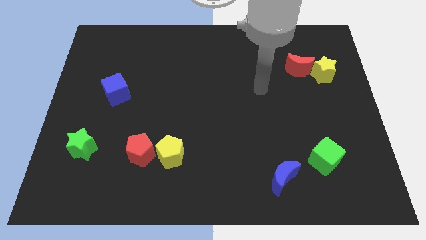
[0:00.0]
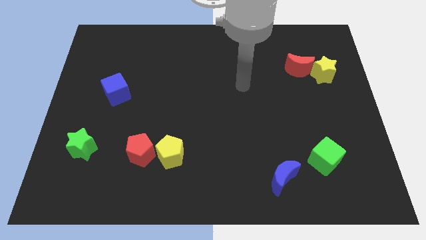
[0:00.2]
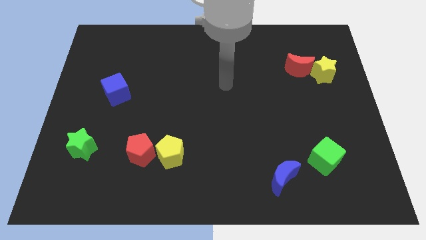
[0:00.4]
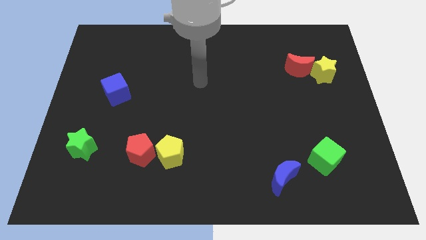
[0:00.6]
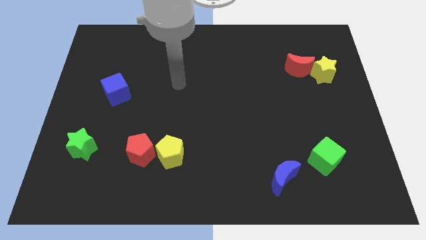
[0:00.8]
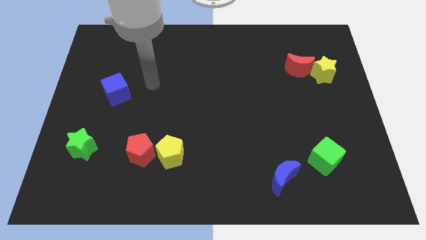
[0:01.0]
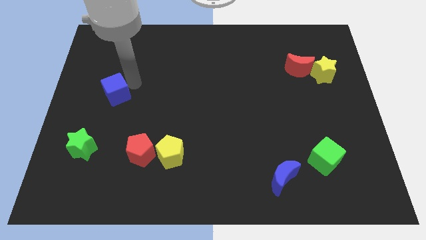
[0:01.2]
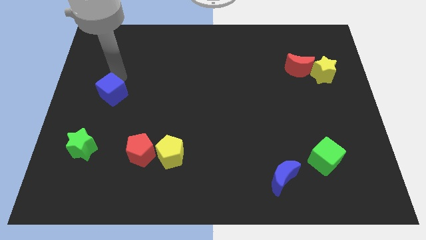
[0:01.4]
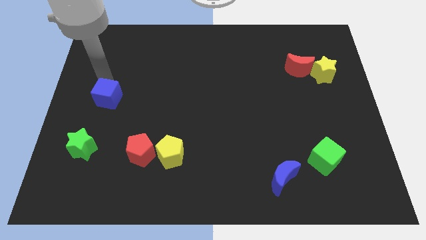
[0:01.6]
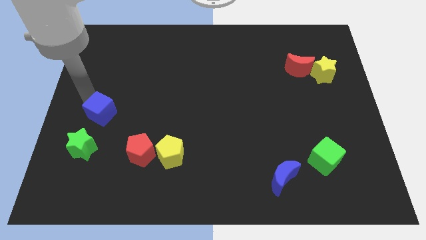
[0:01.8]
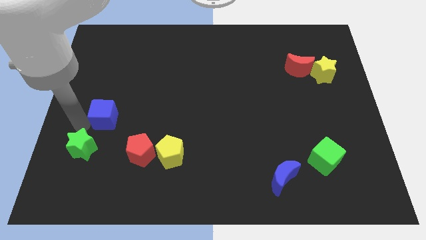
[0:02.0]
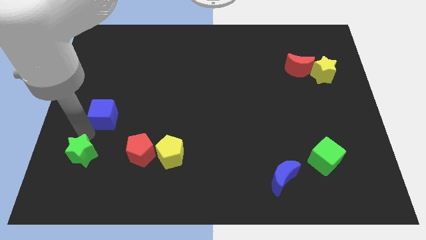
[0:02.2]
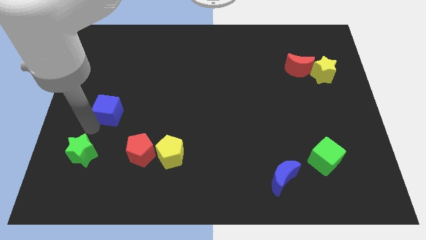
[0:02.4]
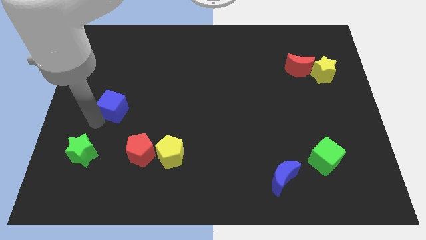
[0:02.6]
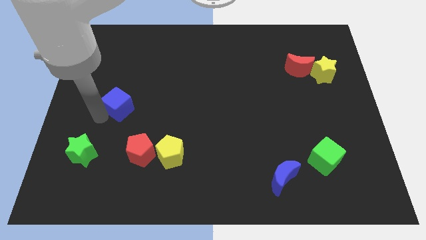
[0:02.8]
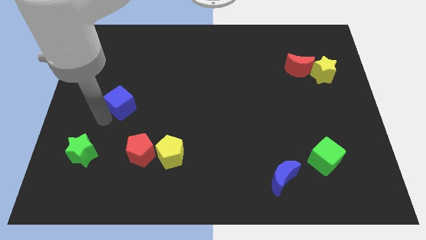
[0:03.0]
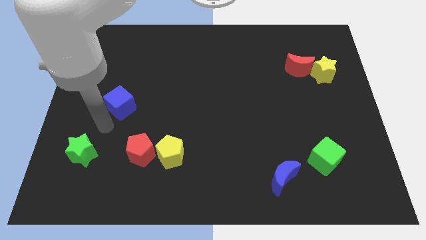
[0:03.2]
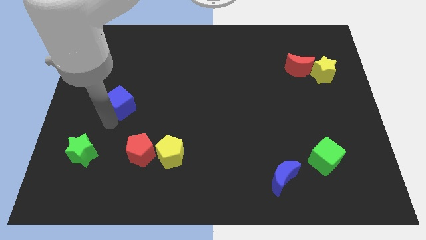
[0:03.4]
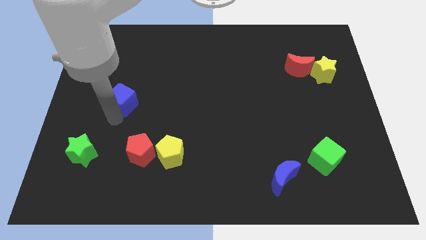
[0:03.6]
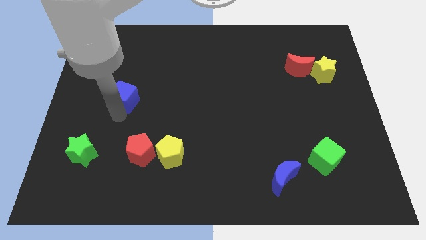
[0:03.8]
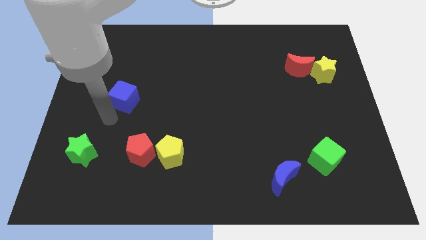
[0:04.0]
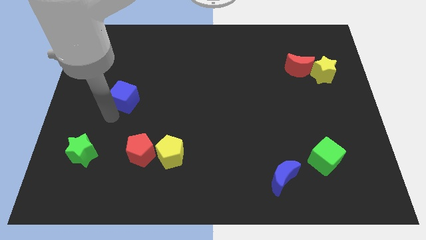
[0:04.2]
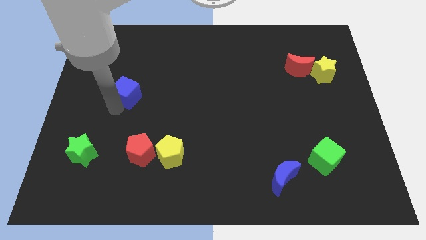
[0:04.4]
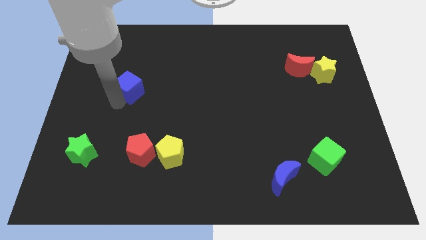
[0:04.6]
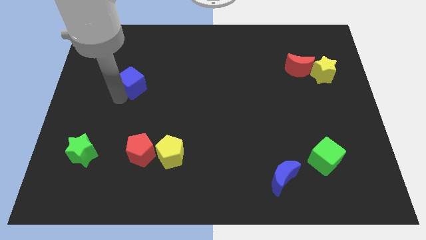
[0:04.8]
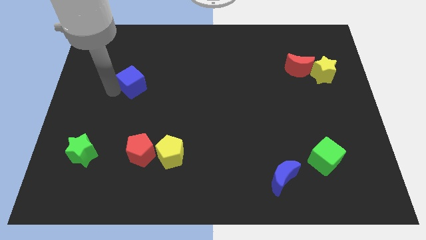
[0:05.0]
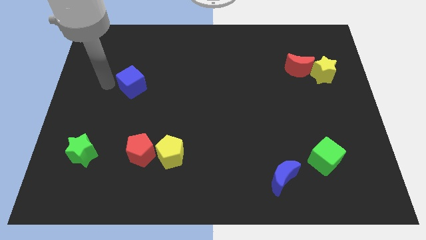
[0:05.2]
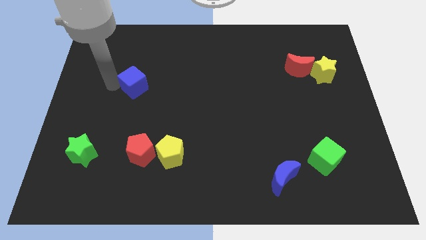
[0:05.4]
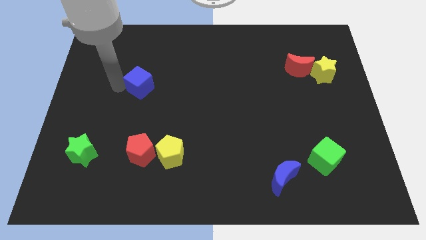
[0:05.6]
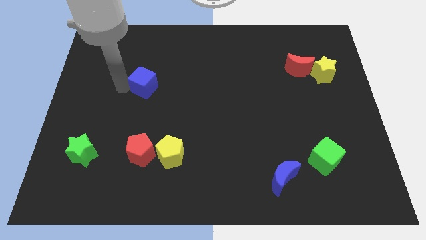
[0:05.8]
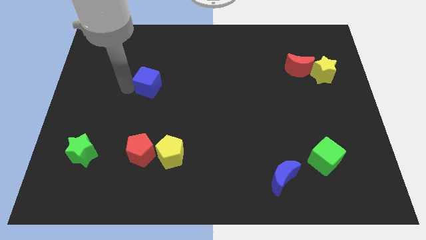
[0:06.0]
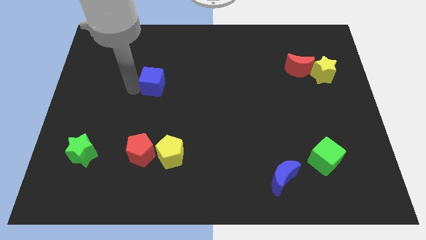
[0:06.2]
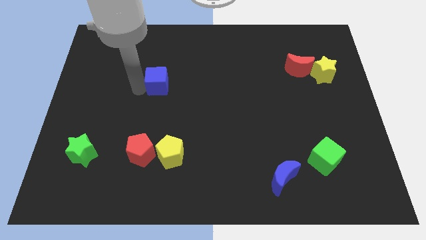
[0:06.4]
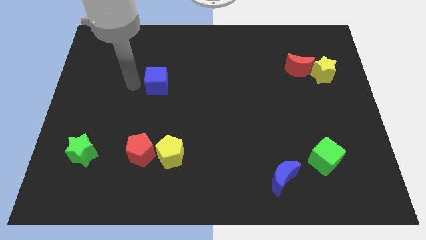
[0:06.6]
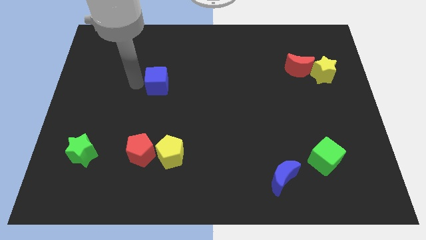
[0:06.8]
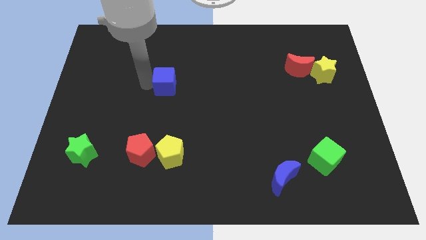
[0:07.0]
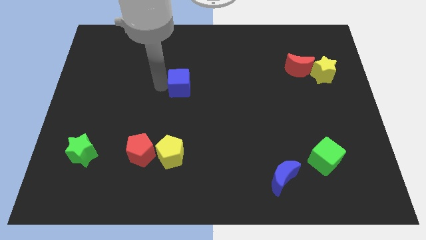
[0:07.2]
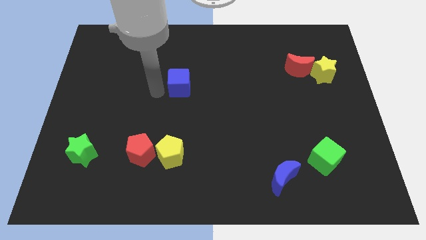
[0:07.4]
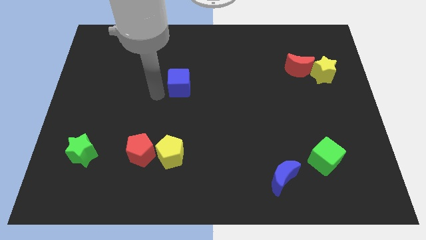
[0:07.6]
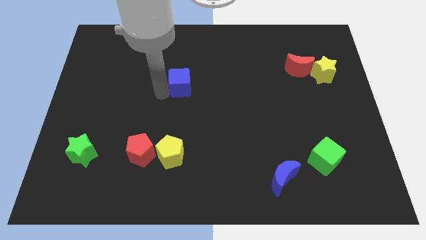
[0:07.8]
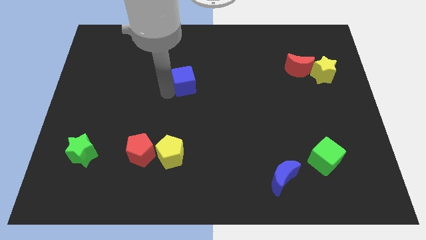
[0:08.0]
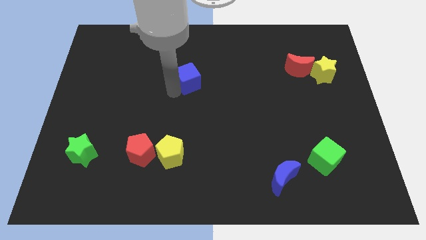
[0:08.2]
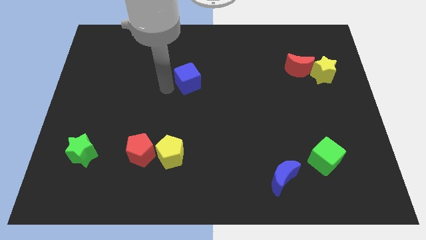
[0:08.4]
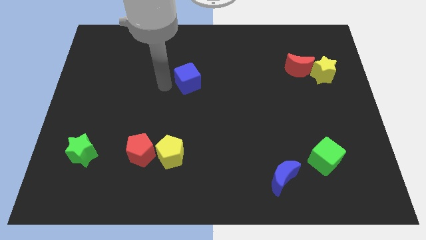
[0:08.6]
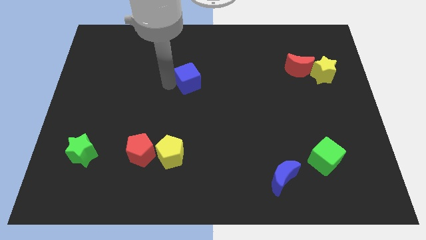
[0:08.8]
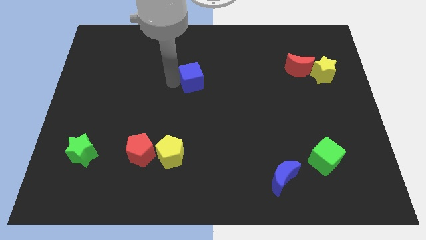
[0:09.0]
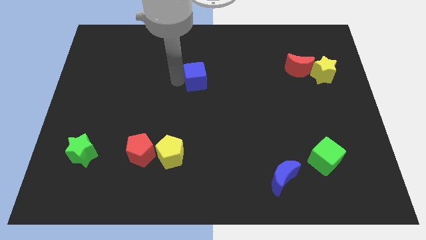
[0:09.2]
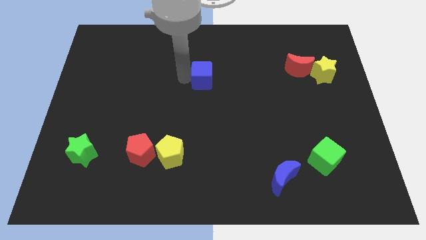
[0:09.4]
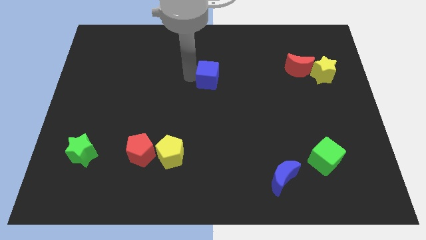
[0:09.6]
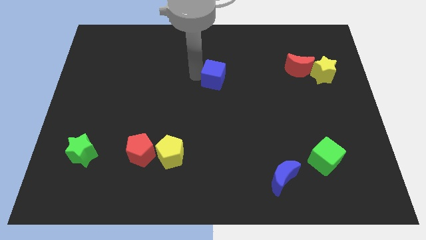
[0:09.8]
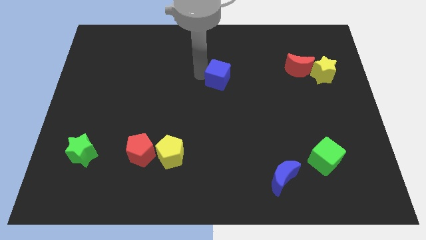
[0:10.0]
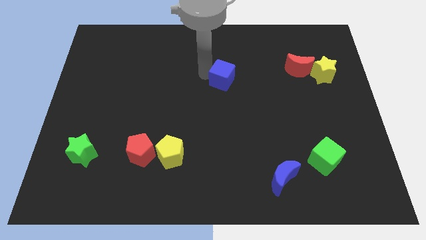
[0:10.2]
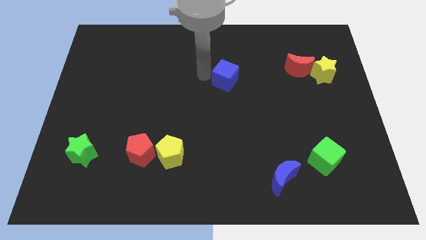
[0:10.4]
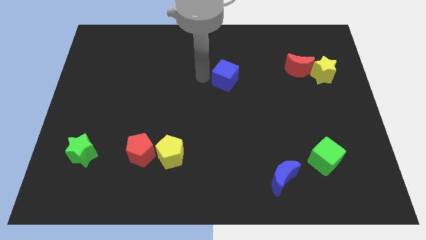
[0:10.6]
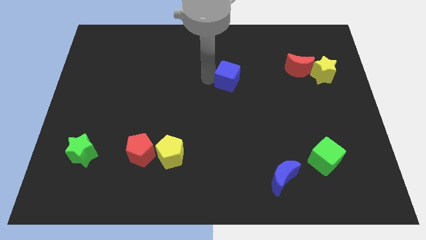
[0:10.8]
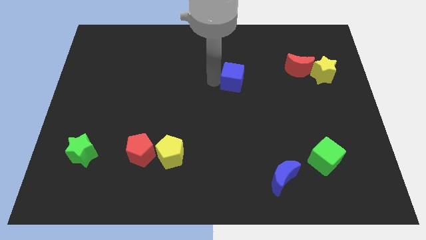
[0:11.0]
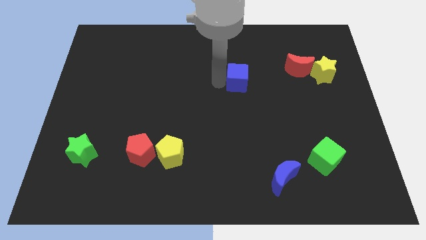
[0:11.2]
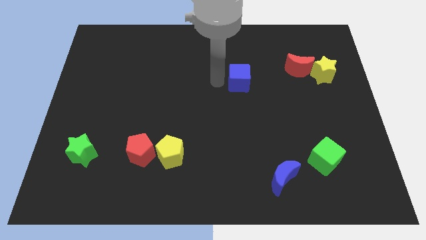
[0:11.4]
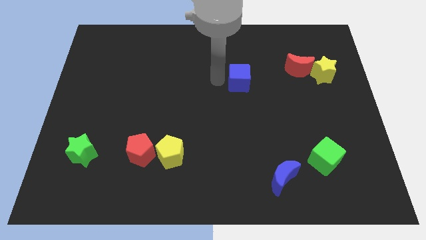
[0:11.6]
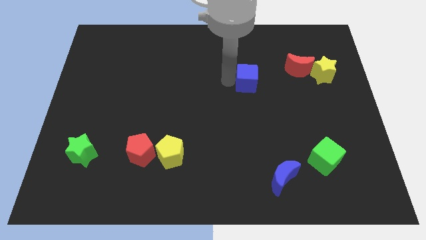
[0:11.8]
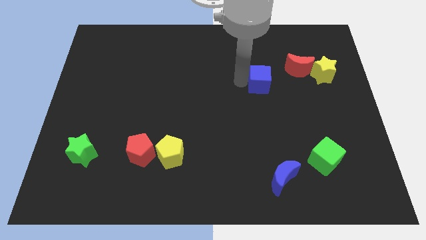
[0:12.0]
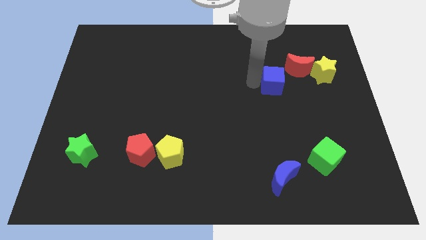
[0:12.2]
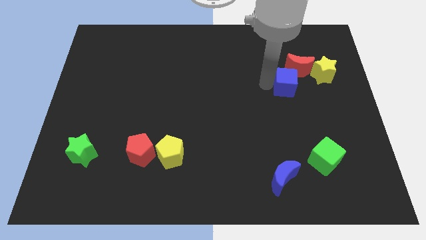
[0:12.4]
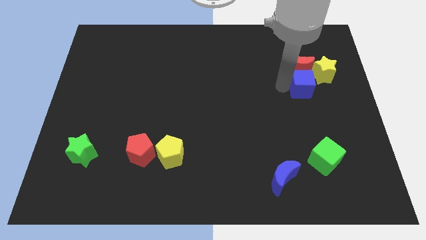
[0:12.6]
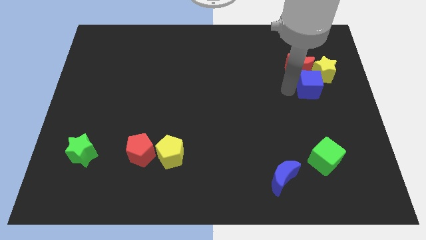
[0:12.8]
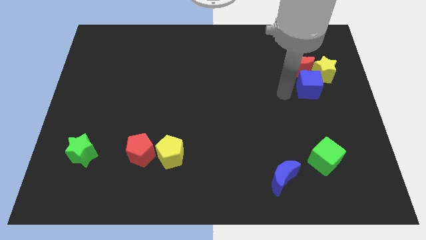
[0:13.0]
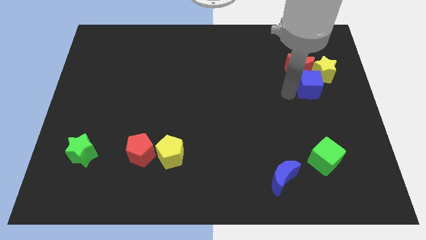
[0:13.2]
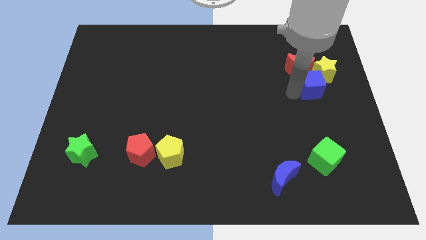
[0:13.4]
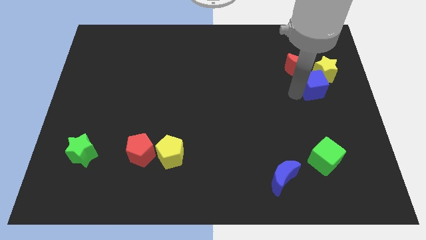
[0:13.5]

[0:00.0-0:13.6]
slide the blue cube towards the yellow star

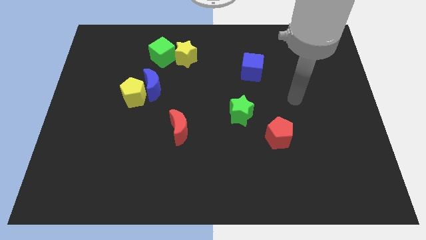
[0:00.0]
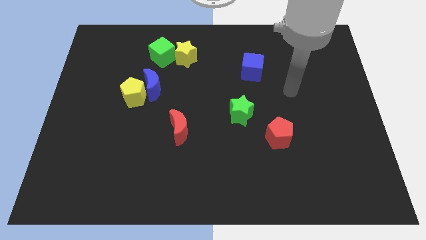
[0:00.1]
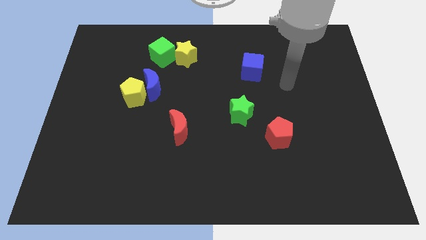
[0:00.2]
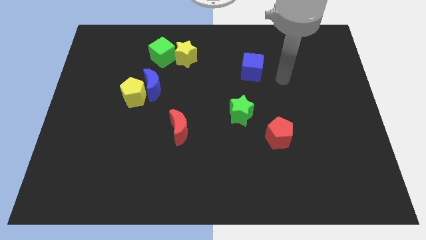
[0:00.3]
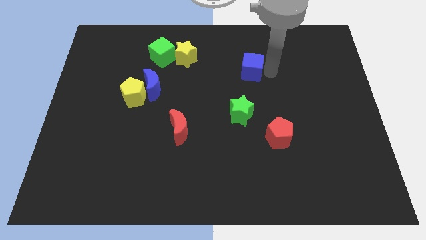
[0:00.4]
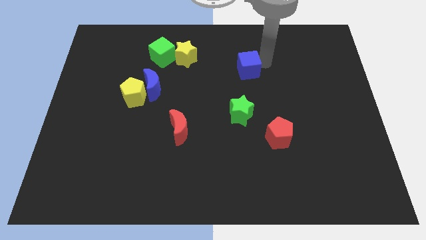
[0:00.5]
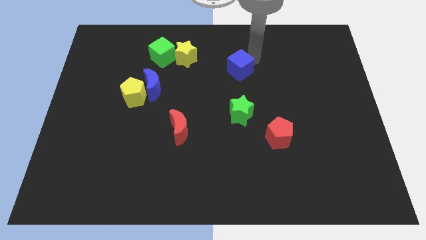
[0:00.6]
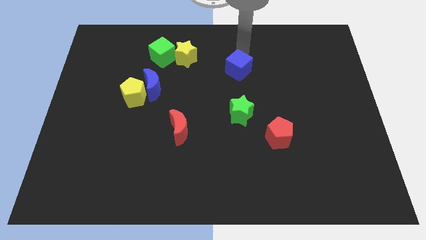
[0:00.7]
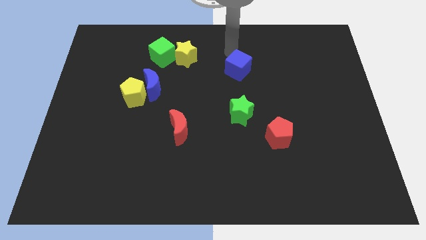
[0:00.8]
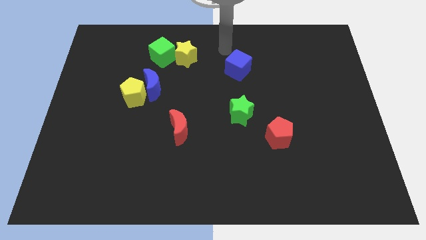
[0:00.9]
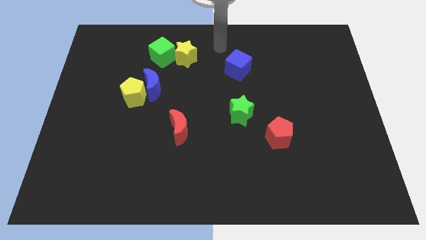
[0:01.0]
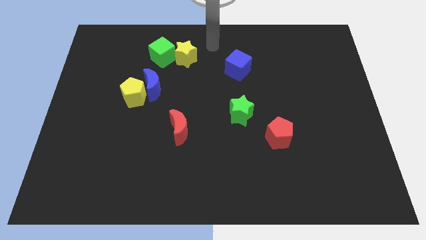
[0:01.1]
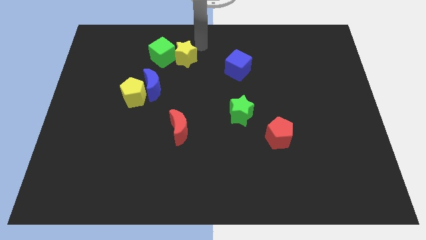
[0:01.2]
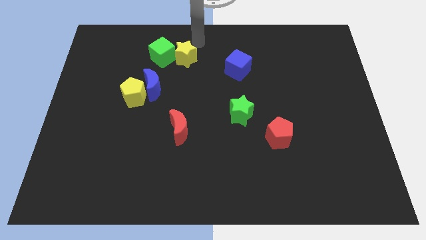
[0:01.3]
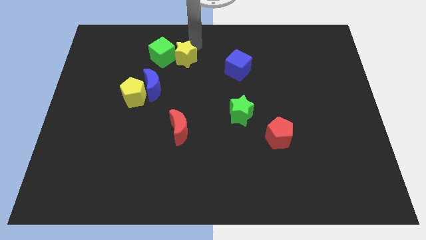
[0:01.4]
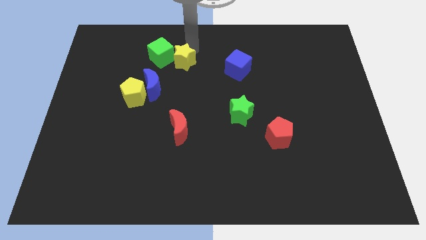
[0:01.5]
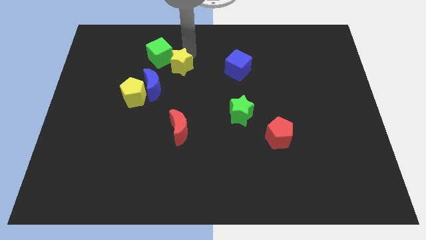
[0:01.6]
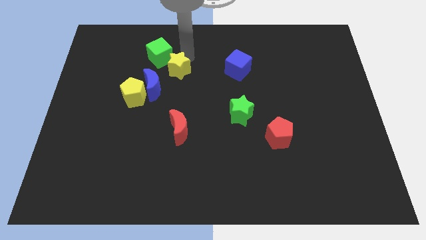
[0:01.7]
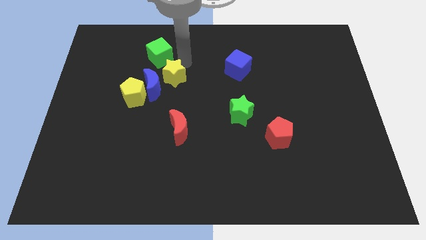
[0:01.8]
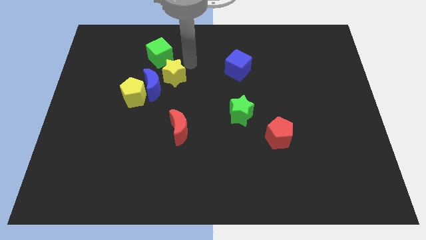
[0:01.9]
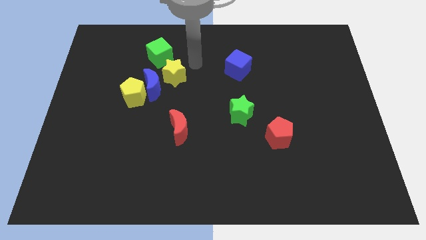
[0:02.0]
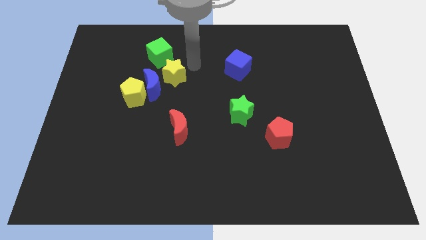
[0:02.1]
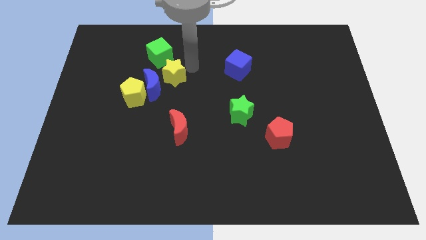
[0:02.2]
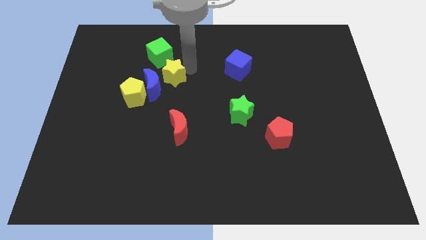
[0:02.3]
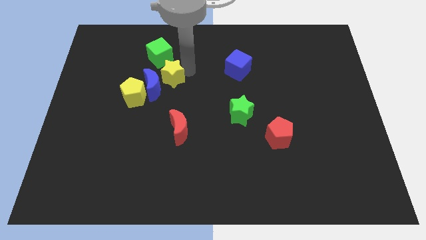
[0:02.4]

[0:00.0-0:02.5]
move the yellow star next to the blue moon
